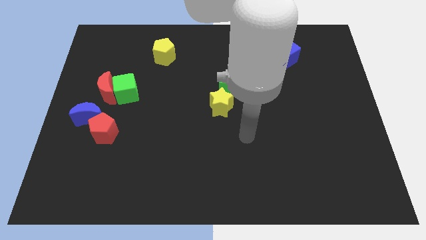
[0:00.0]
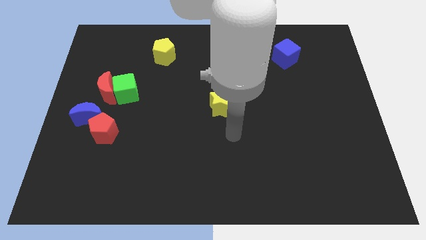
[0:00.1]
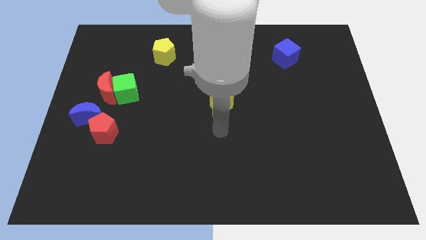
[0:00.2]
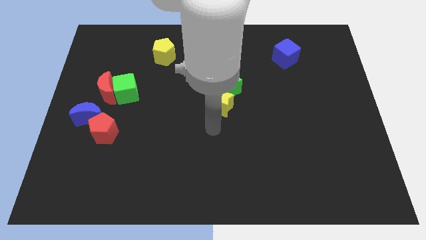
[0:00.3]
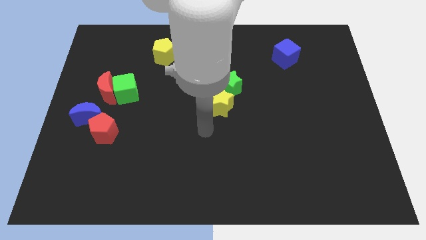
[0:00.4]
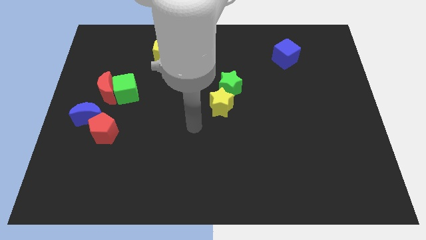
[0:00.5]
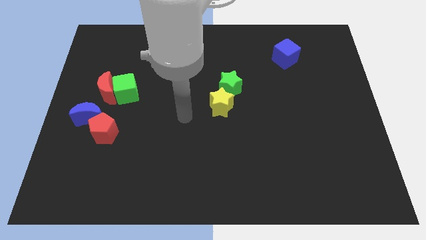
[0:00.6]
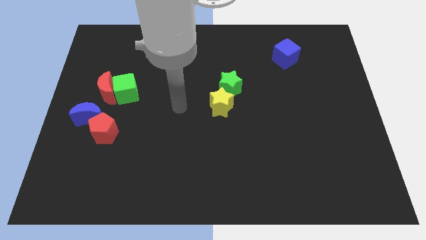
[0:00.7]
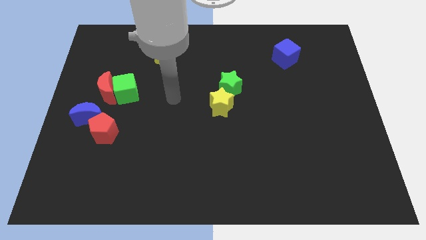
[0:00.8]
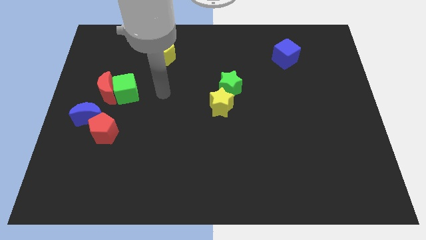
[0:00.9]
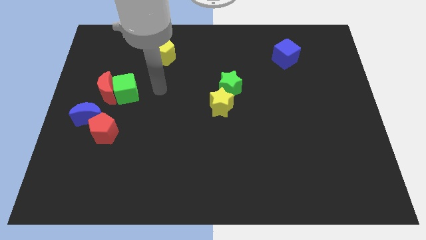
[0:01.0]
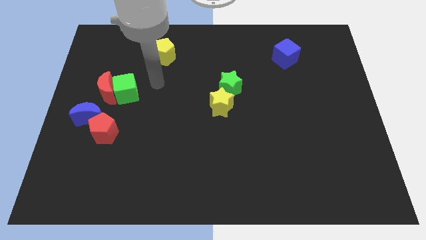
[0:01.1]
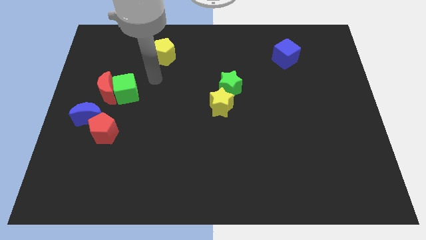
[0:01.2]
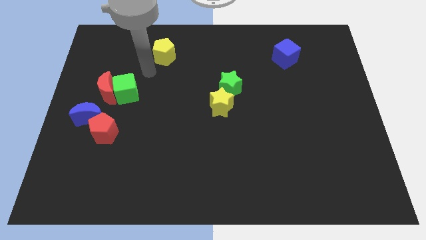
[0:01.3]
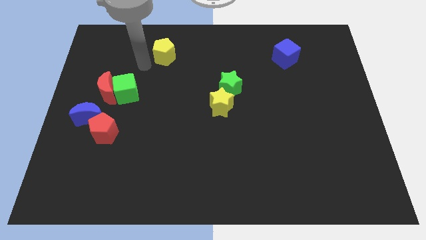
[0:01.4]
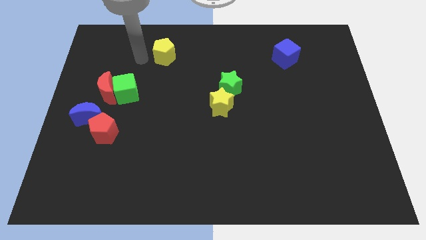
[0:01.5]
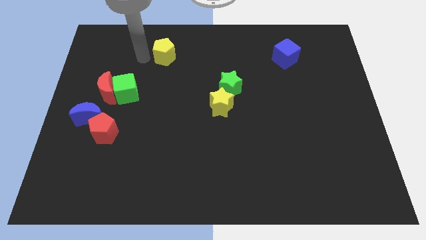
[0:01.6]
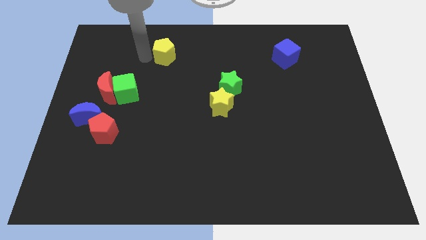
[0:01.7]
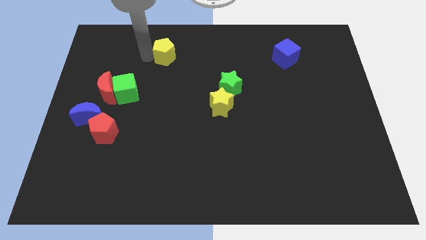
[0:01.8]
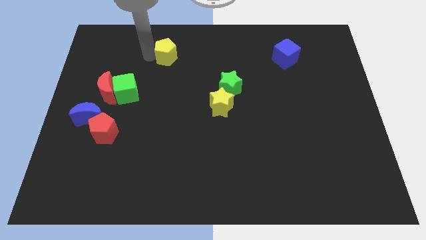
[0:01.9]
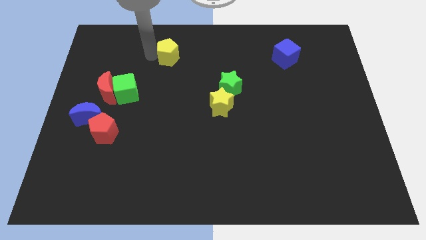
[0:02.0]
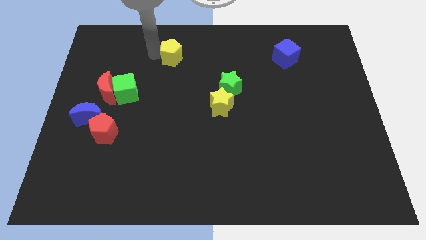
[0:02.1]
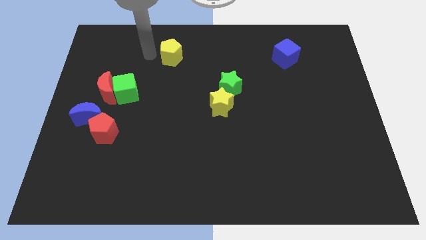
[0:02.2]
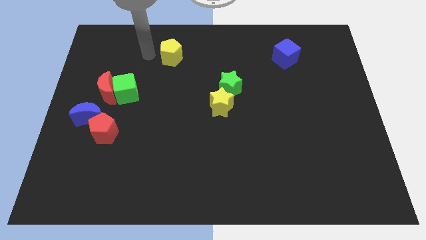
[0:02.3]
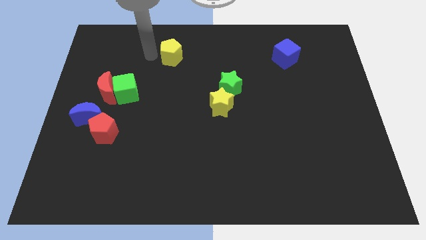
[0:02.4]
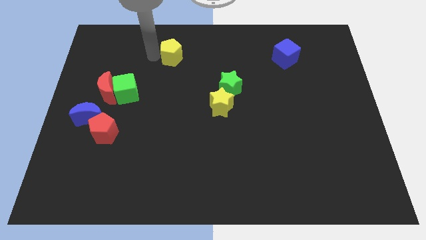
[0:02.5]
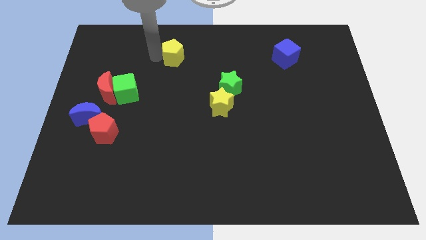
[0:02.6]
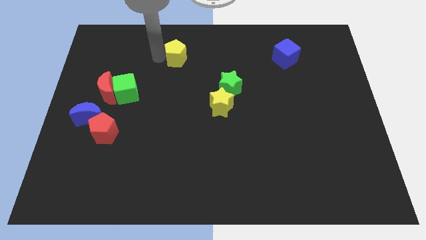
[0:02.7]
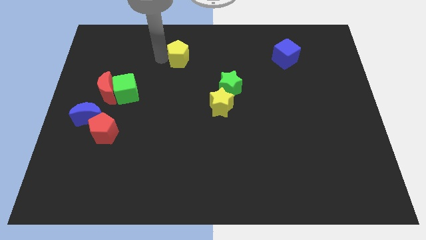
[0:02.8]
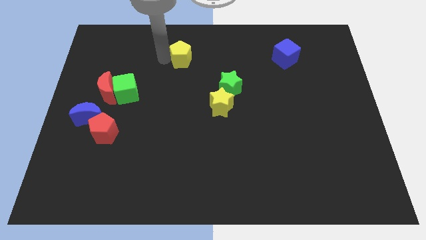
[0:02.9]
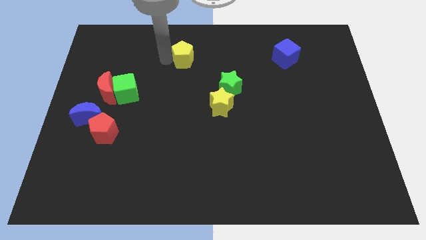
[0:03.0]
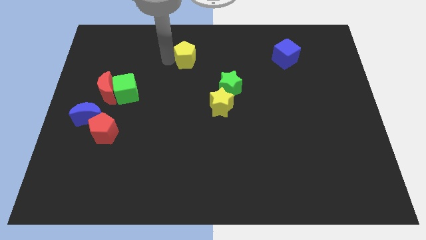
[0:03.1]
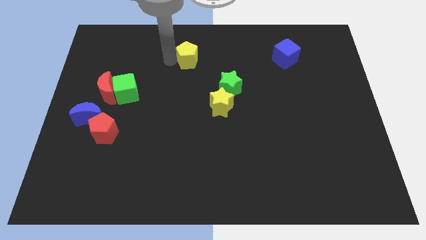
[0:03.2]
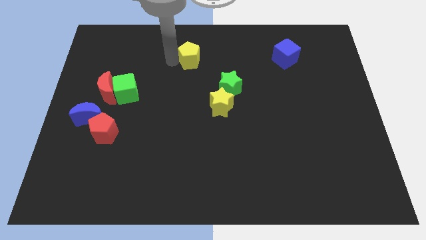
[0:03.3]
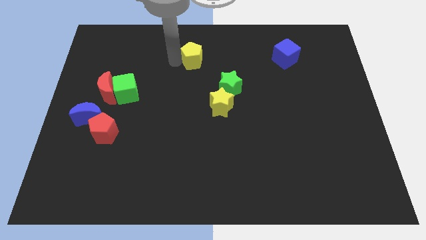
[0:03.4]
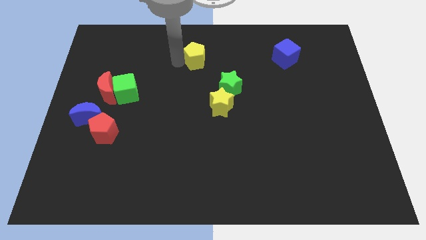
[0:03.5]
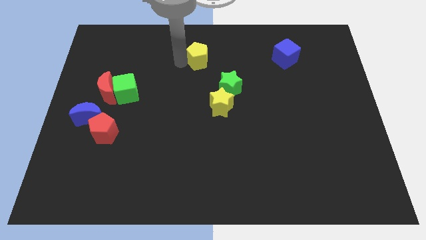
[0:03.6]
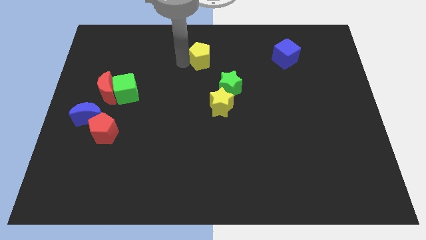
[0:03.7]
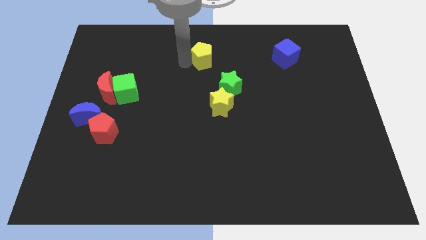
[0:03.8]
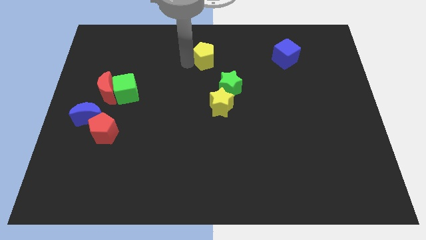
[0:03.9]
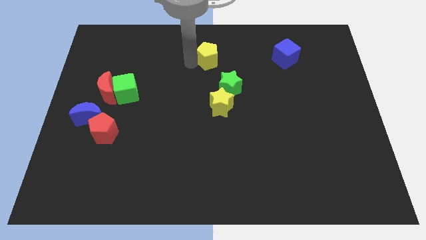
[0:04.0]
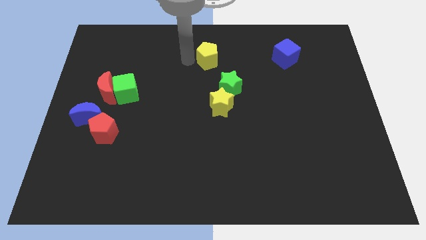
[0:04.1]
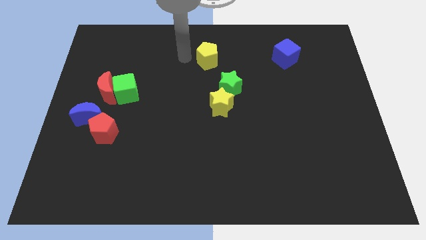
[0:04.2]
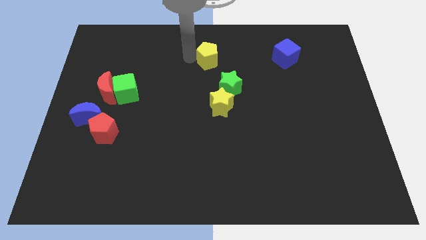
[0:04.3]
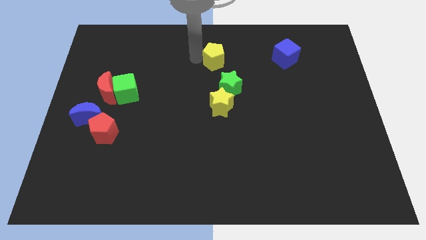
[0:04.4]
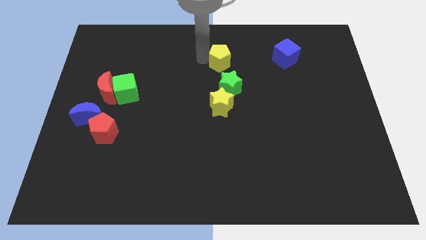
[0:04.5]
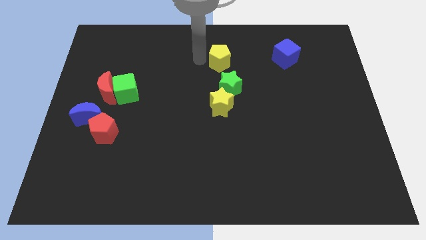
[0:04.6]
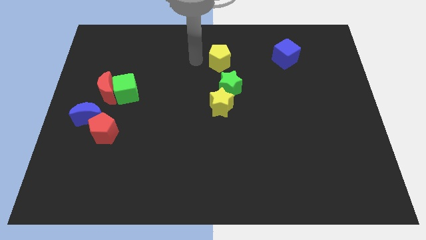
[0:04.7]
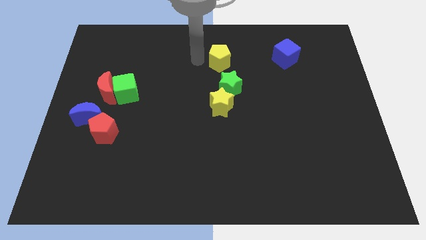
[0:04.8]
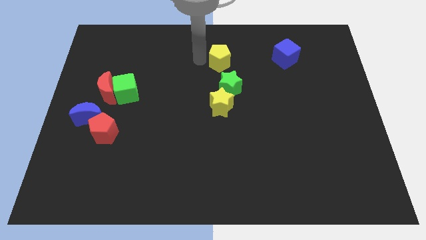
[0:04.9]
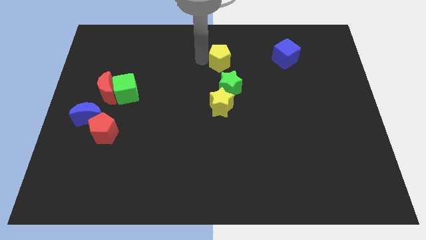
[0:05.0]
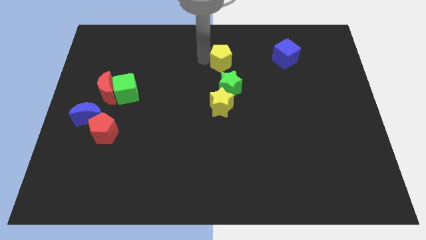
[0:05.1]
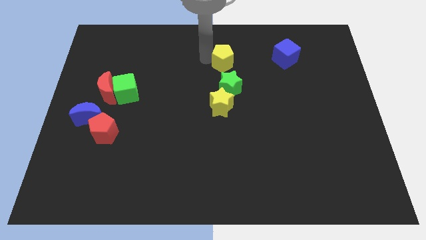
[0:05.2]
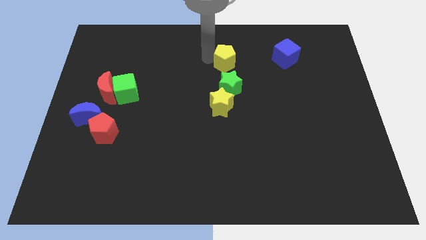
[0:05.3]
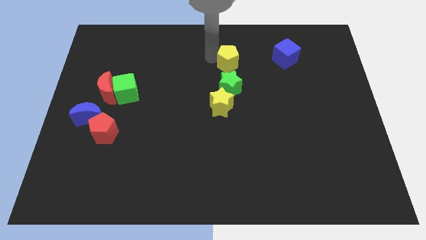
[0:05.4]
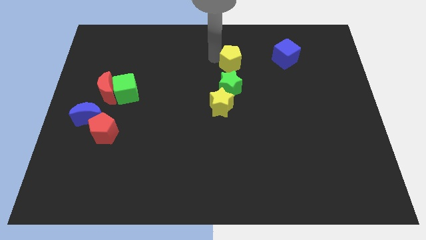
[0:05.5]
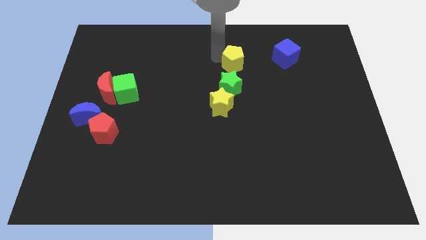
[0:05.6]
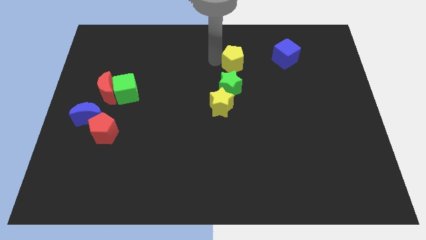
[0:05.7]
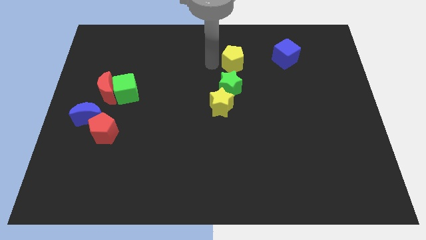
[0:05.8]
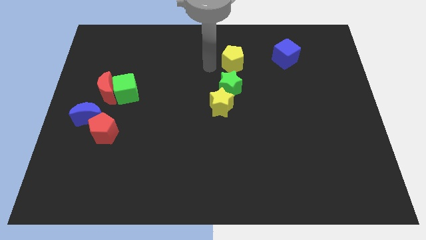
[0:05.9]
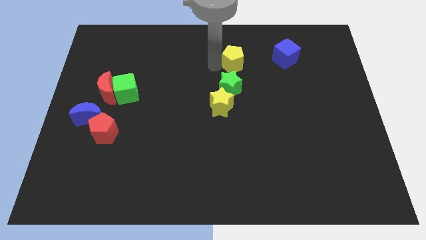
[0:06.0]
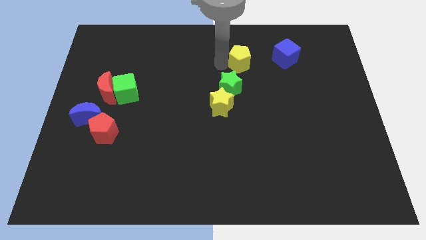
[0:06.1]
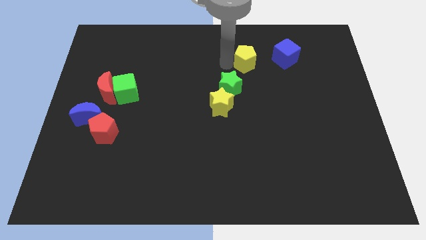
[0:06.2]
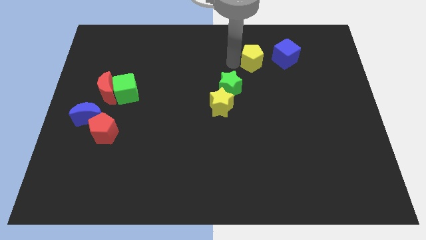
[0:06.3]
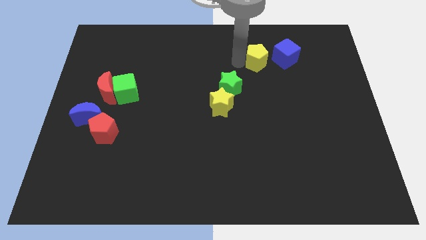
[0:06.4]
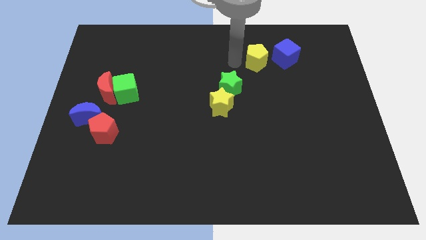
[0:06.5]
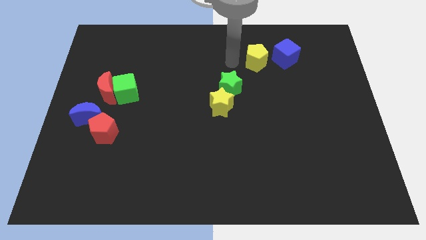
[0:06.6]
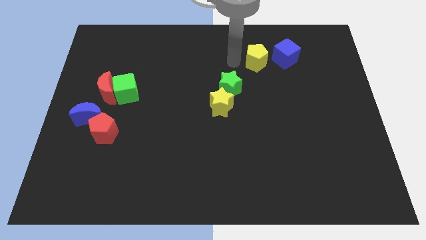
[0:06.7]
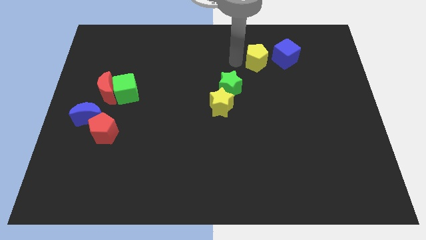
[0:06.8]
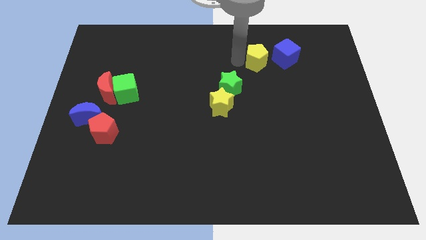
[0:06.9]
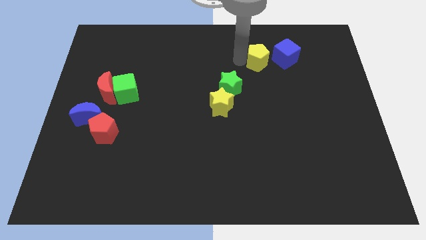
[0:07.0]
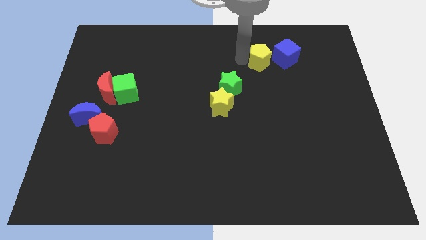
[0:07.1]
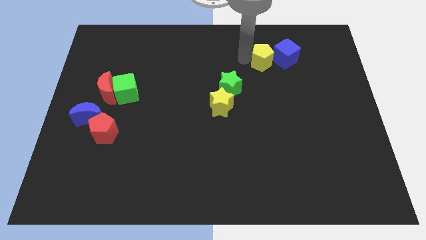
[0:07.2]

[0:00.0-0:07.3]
put the yellow pentagon towards the blue cube

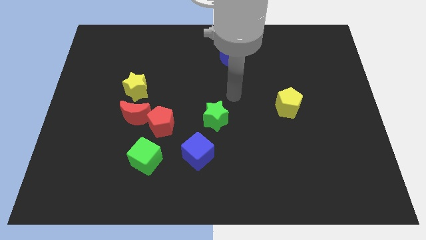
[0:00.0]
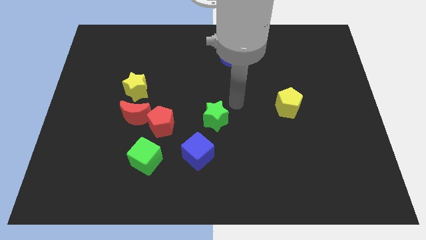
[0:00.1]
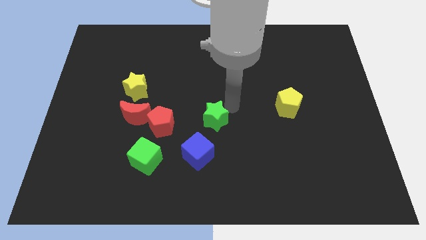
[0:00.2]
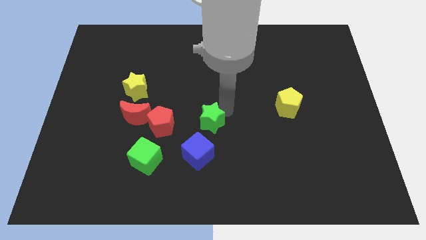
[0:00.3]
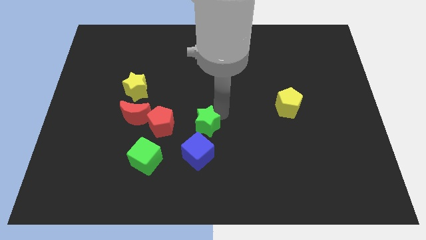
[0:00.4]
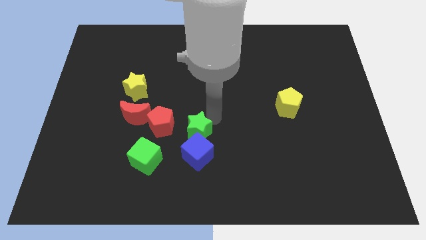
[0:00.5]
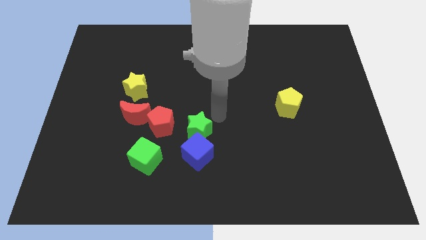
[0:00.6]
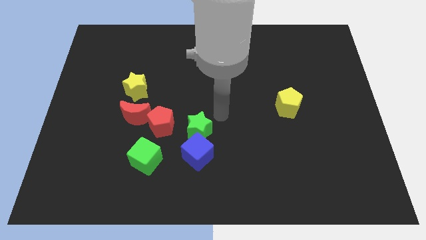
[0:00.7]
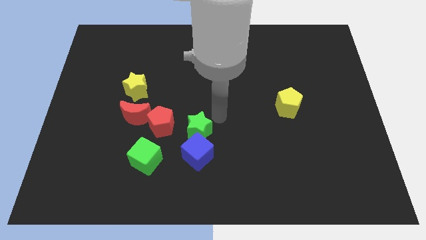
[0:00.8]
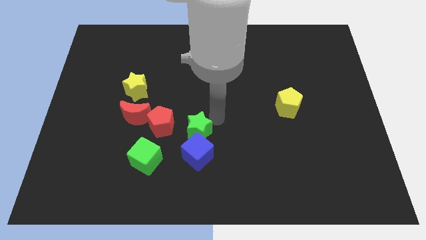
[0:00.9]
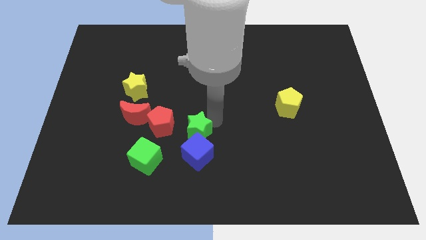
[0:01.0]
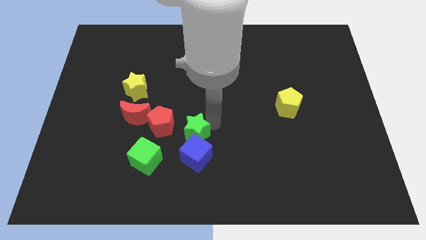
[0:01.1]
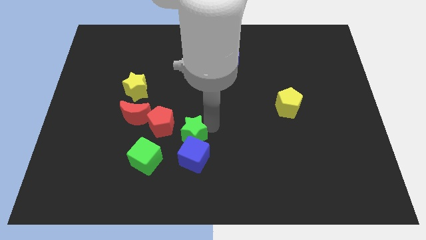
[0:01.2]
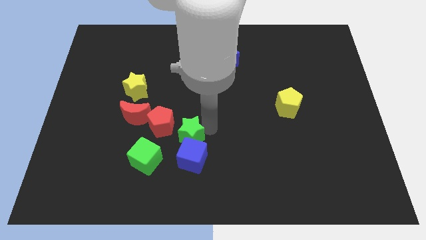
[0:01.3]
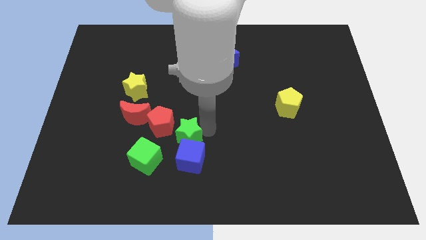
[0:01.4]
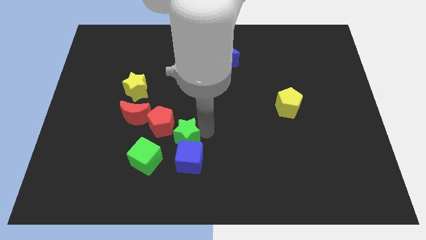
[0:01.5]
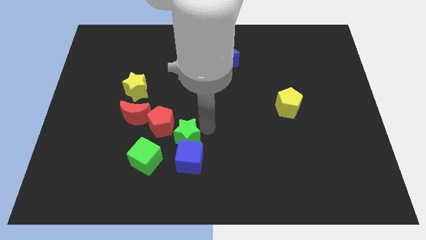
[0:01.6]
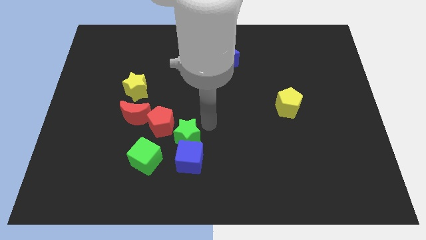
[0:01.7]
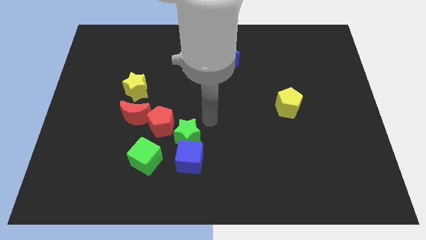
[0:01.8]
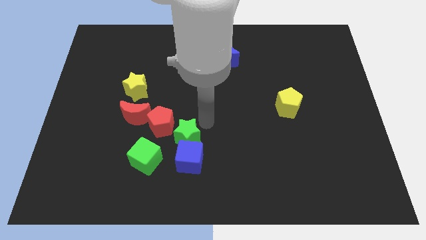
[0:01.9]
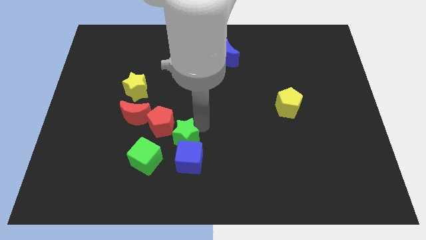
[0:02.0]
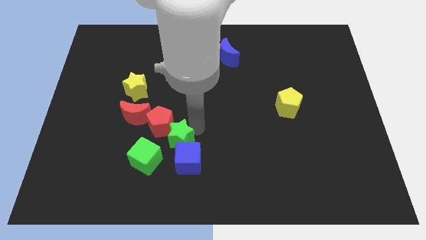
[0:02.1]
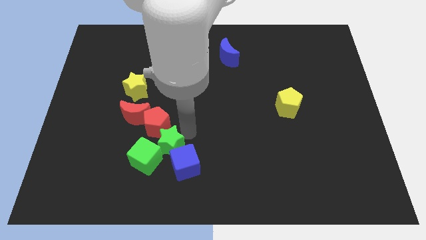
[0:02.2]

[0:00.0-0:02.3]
slide the green star towards the green cube
